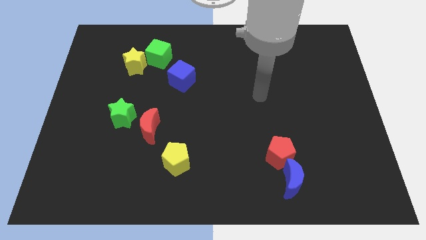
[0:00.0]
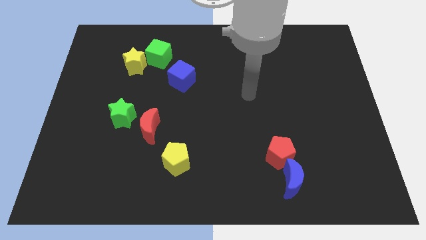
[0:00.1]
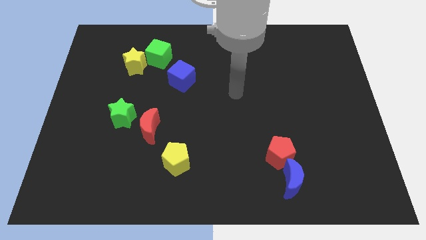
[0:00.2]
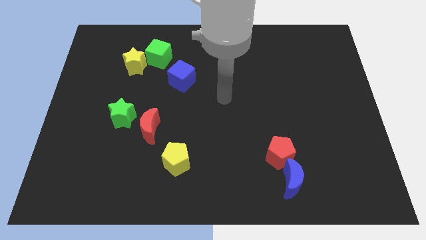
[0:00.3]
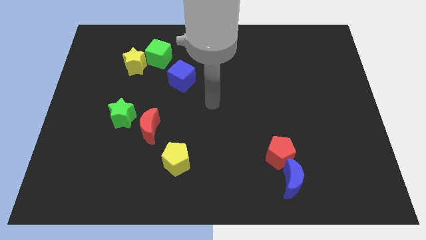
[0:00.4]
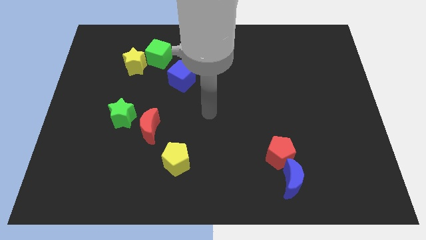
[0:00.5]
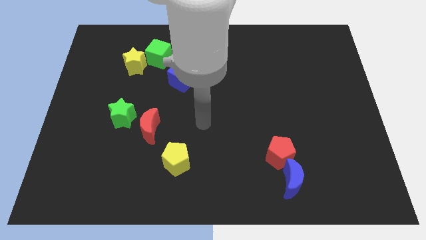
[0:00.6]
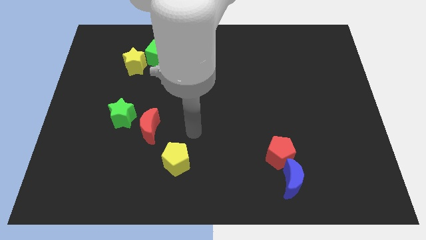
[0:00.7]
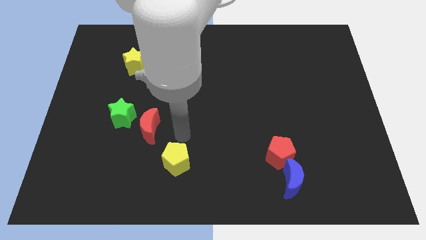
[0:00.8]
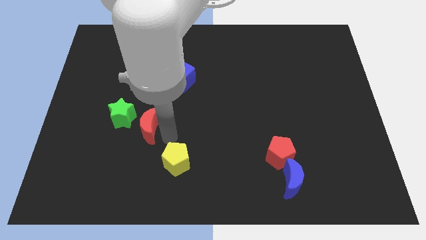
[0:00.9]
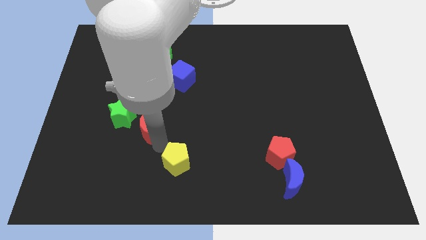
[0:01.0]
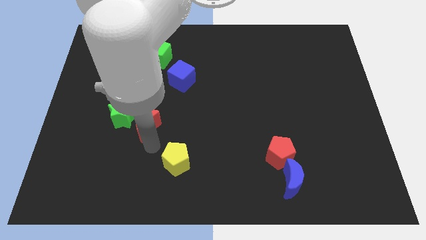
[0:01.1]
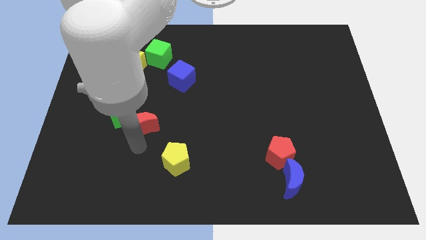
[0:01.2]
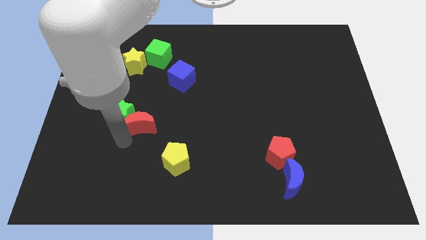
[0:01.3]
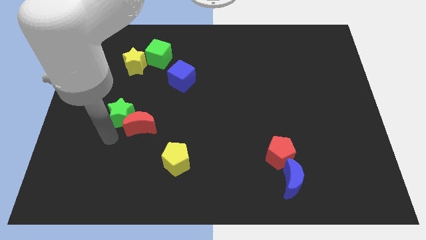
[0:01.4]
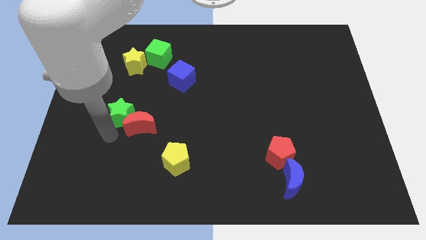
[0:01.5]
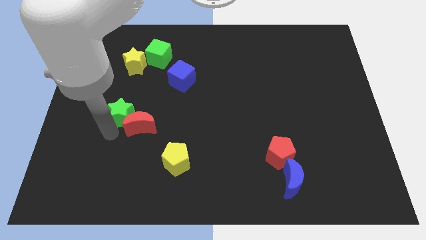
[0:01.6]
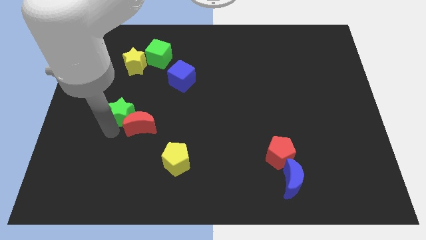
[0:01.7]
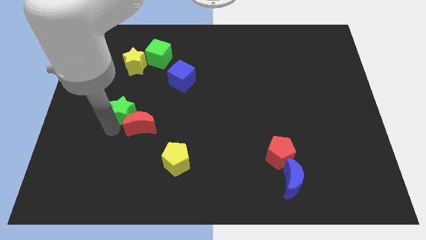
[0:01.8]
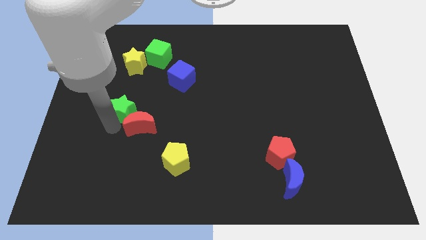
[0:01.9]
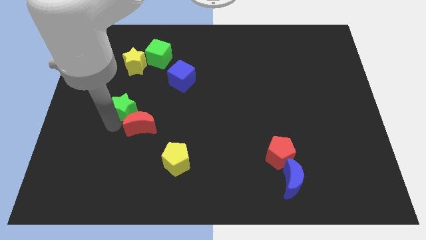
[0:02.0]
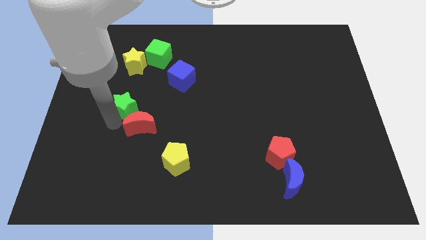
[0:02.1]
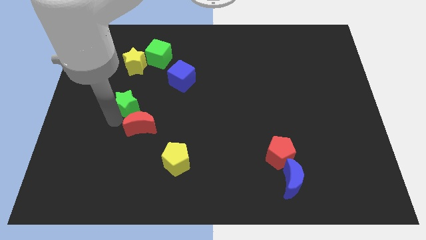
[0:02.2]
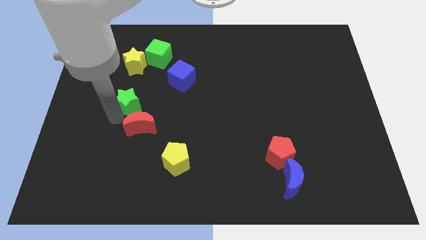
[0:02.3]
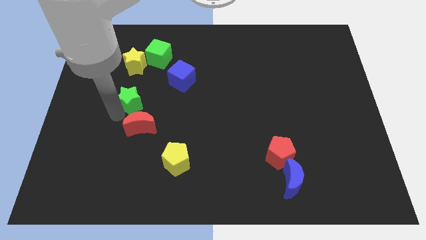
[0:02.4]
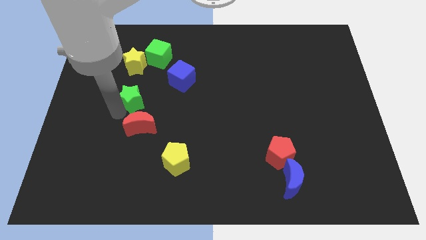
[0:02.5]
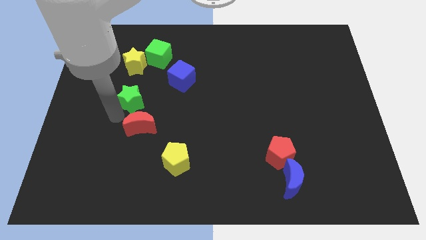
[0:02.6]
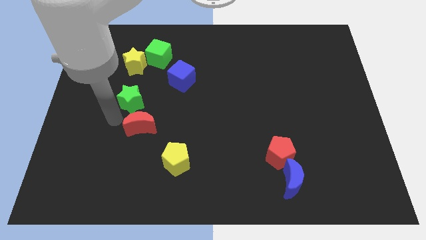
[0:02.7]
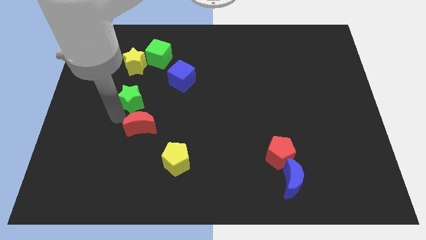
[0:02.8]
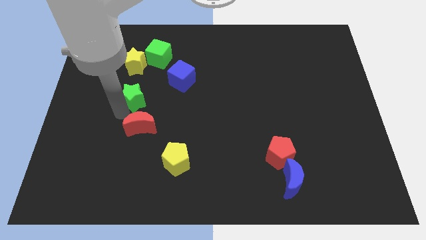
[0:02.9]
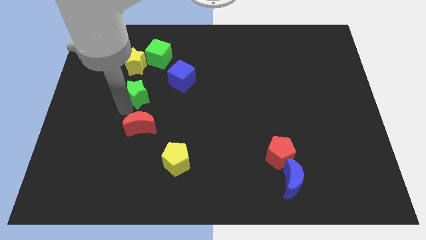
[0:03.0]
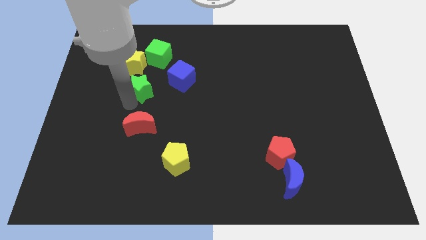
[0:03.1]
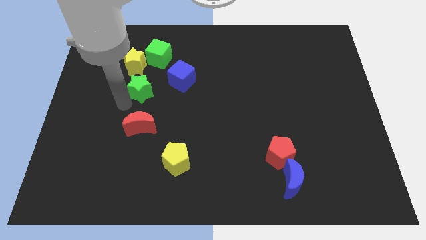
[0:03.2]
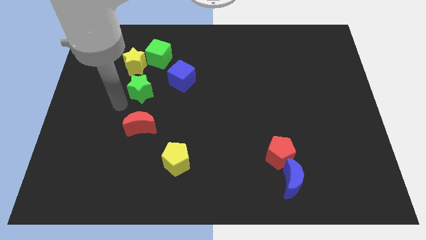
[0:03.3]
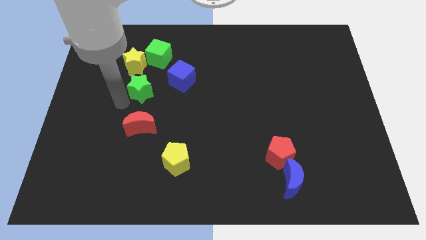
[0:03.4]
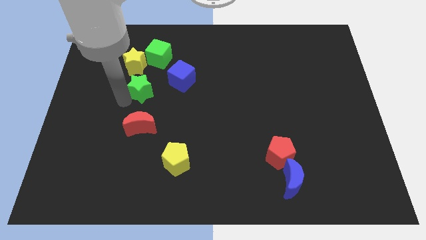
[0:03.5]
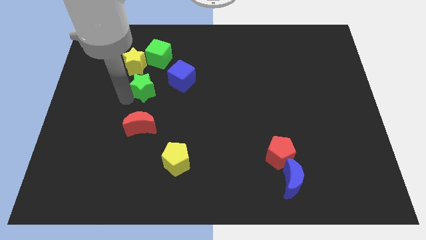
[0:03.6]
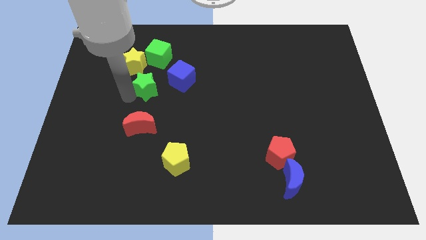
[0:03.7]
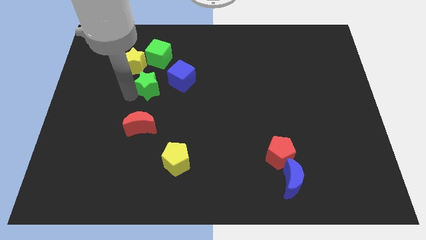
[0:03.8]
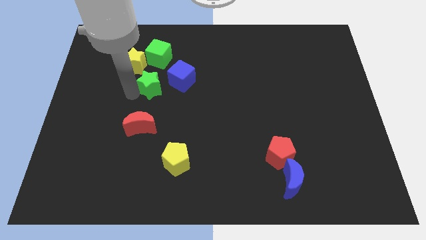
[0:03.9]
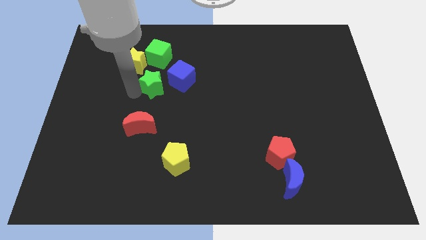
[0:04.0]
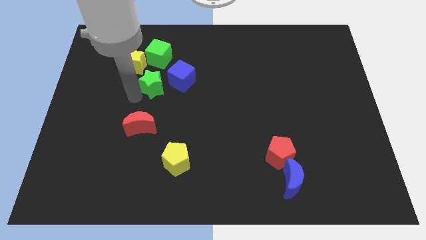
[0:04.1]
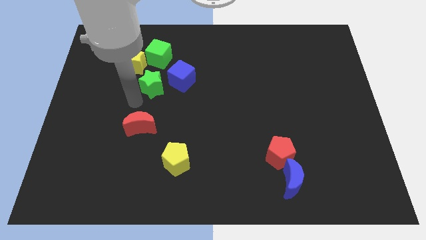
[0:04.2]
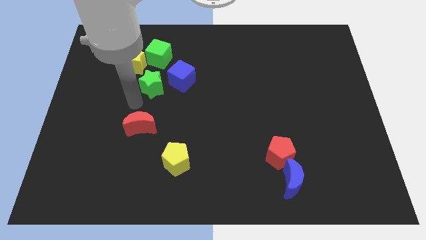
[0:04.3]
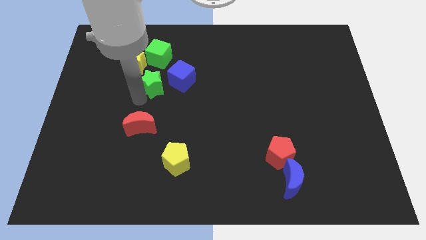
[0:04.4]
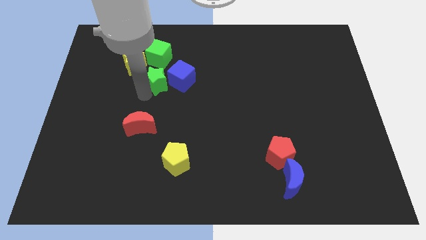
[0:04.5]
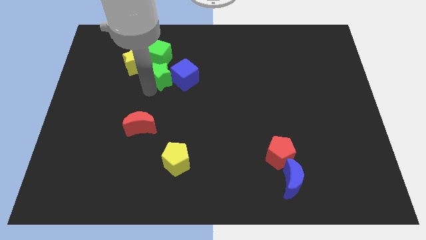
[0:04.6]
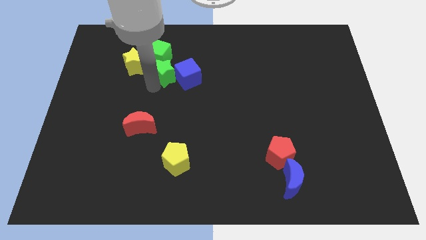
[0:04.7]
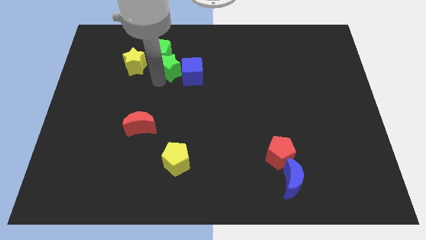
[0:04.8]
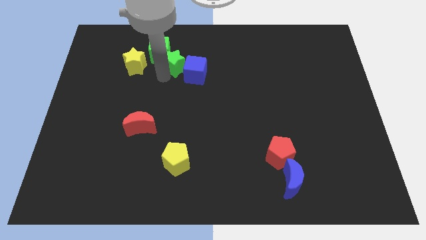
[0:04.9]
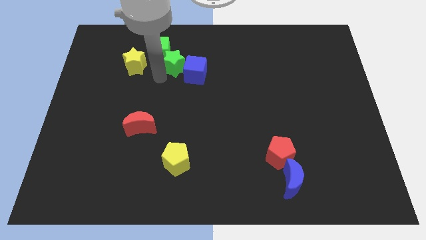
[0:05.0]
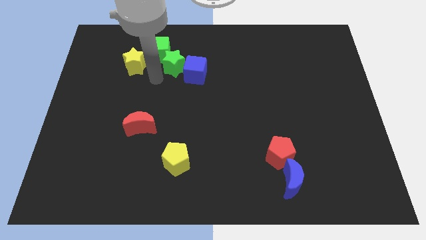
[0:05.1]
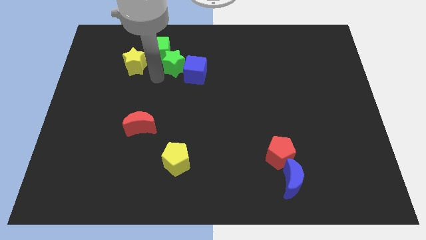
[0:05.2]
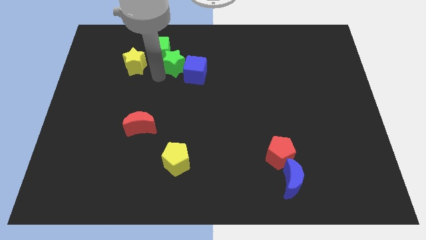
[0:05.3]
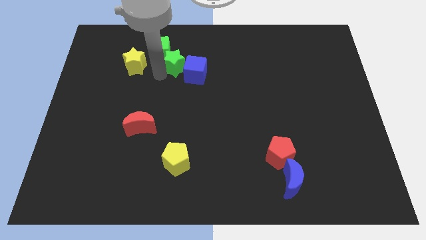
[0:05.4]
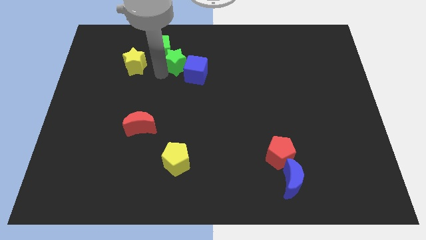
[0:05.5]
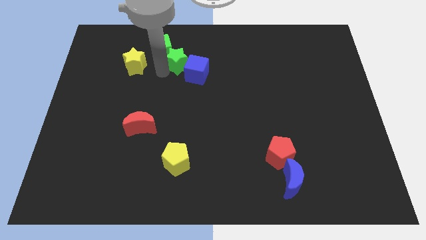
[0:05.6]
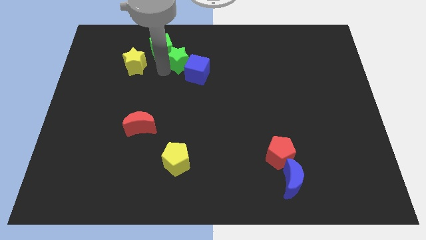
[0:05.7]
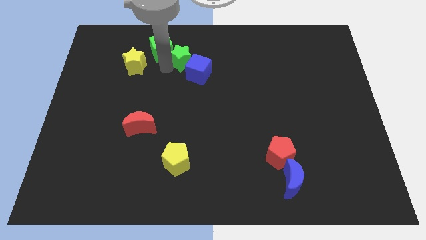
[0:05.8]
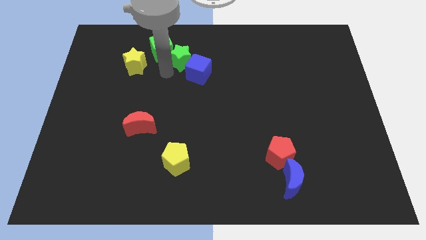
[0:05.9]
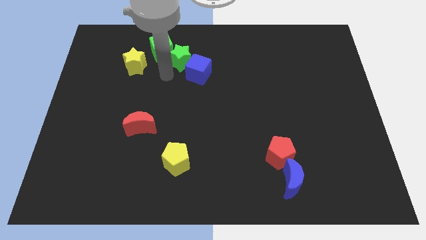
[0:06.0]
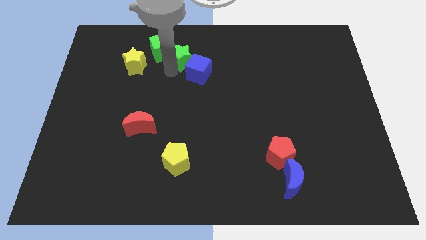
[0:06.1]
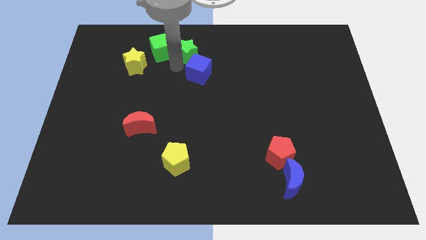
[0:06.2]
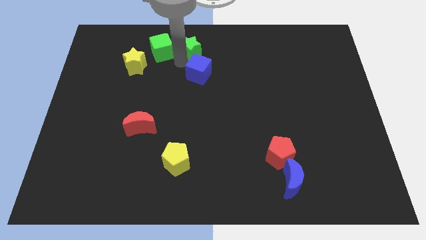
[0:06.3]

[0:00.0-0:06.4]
push the green star to the towards your base
